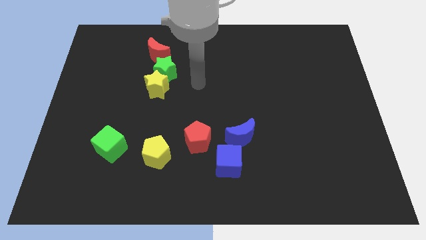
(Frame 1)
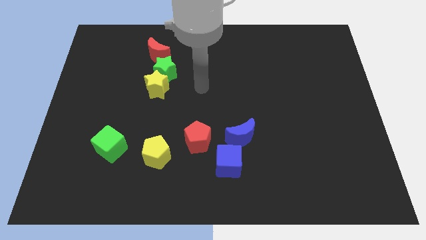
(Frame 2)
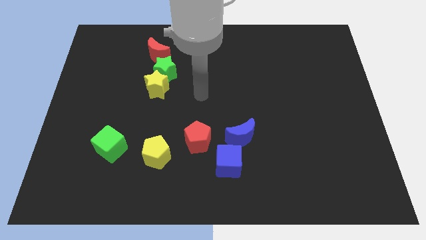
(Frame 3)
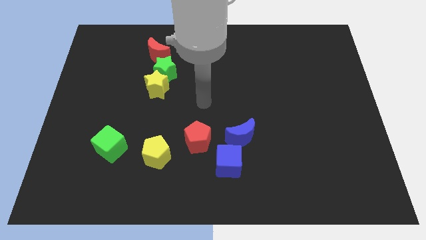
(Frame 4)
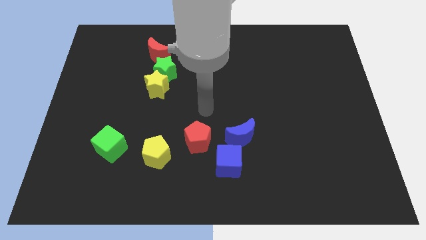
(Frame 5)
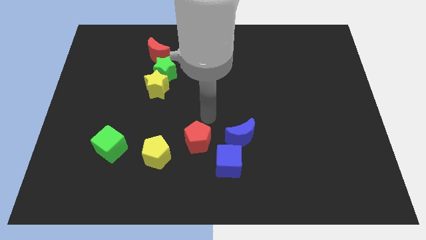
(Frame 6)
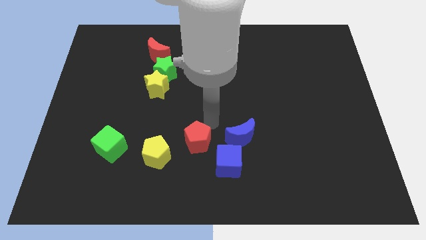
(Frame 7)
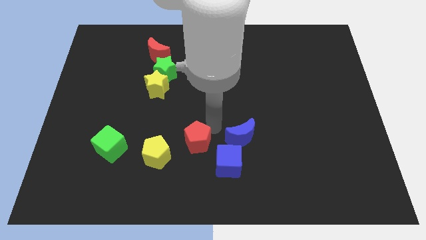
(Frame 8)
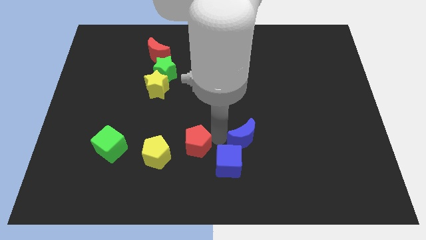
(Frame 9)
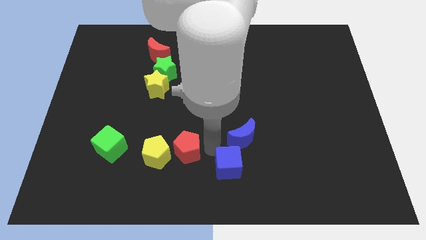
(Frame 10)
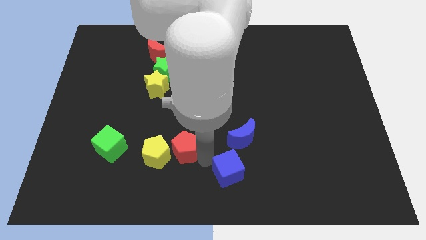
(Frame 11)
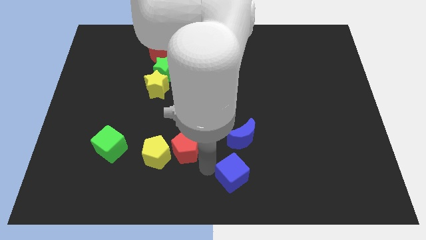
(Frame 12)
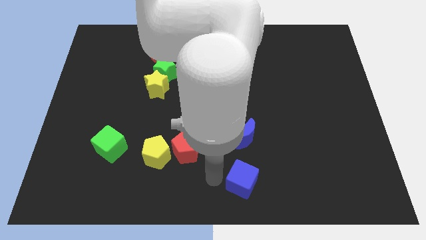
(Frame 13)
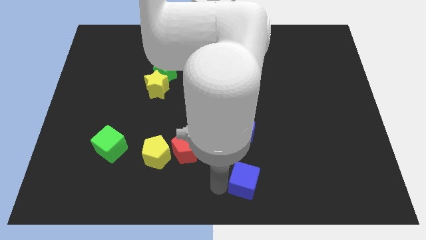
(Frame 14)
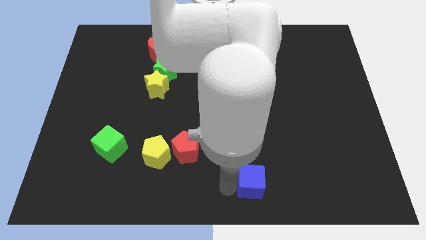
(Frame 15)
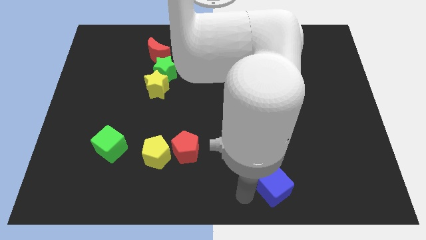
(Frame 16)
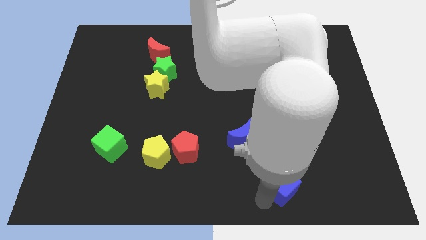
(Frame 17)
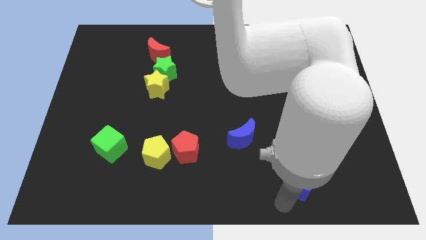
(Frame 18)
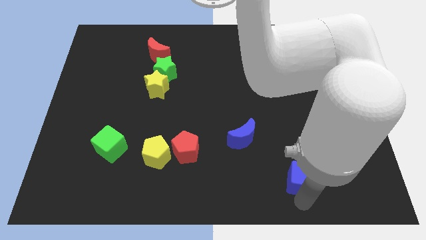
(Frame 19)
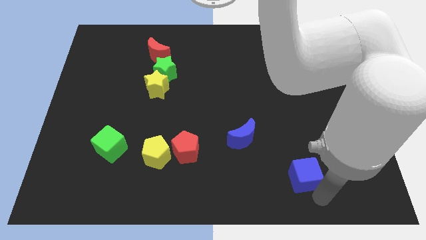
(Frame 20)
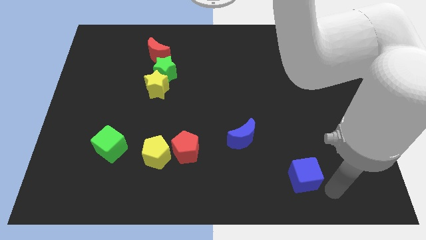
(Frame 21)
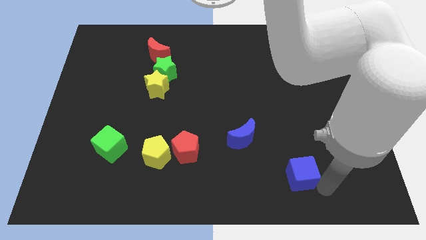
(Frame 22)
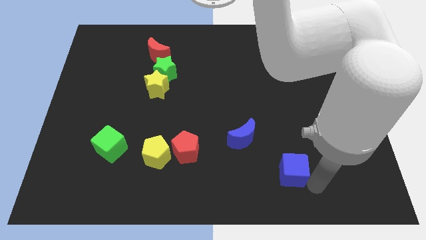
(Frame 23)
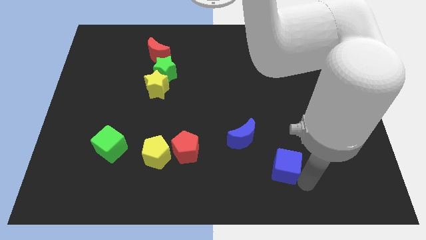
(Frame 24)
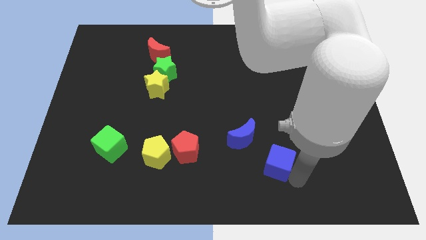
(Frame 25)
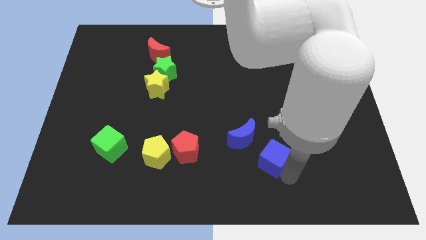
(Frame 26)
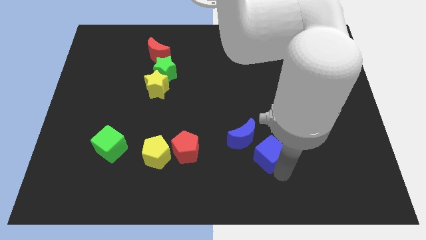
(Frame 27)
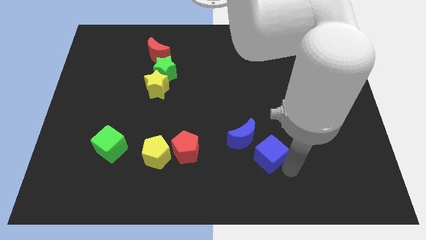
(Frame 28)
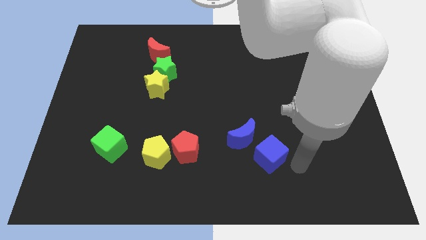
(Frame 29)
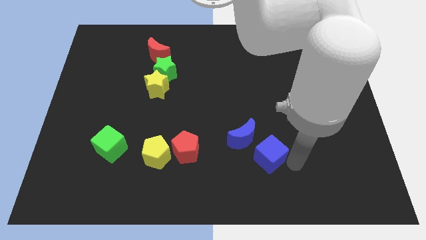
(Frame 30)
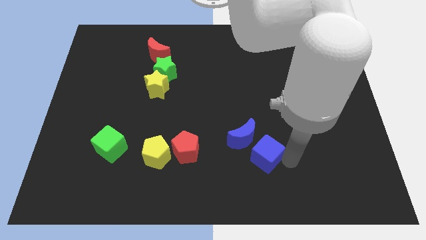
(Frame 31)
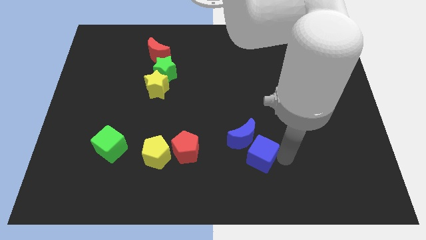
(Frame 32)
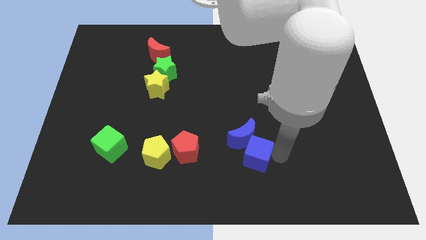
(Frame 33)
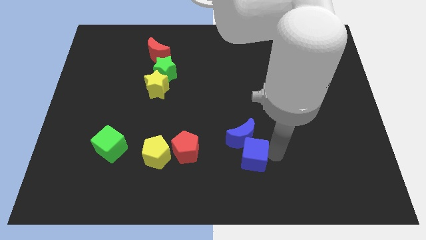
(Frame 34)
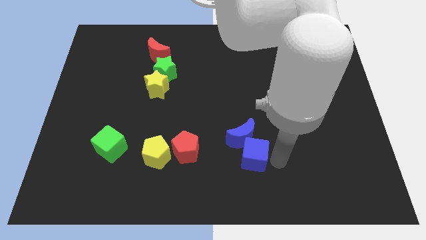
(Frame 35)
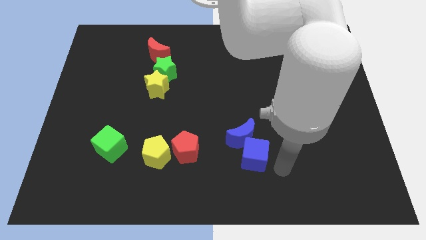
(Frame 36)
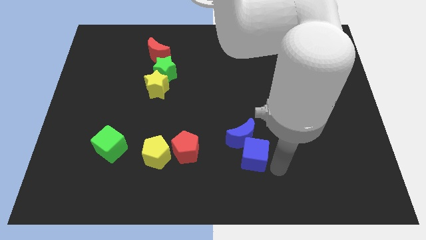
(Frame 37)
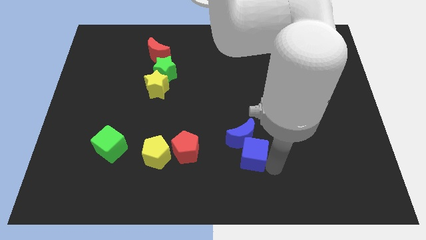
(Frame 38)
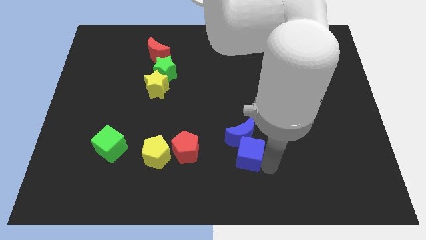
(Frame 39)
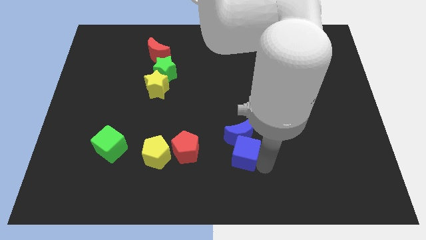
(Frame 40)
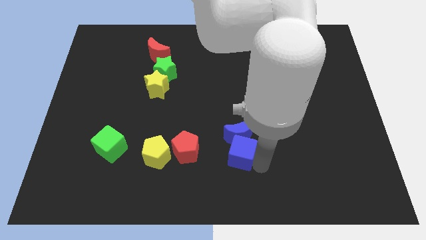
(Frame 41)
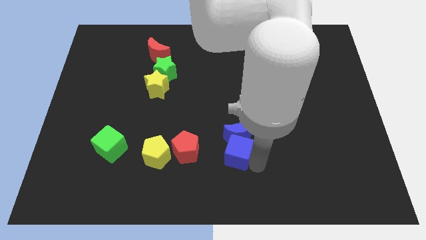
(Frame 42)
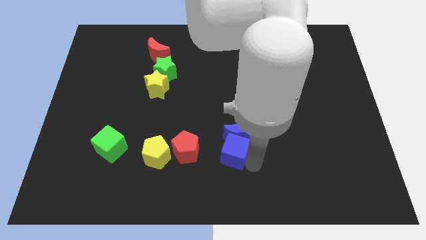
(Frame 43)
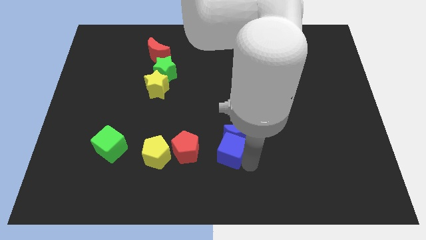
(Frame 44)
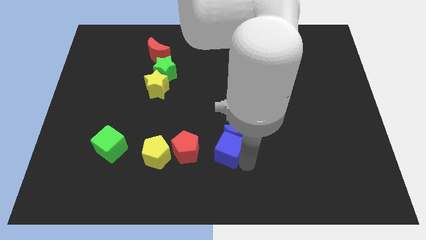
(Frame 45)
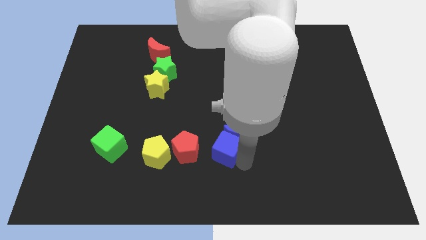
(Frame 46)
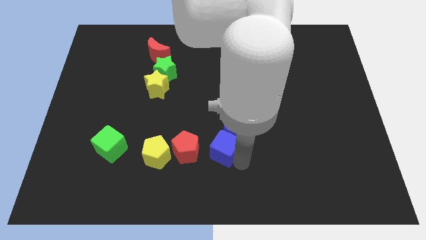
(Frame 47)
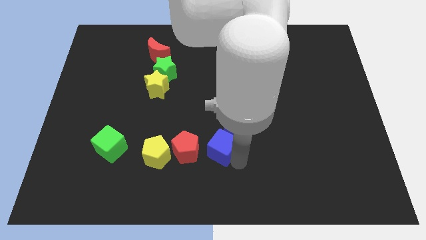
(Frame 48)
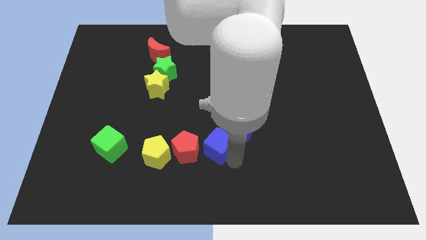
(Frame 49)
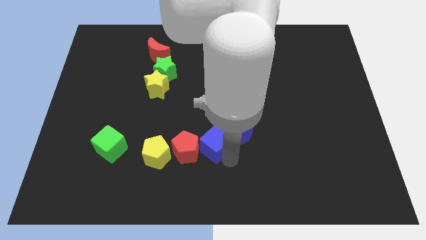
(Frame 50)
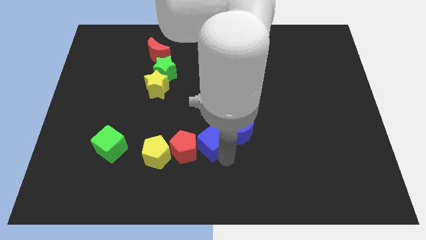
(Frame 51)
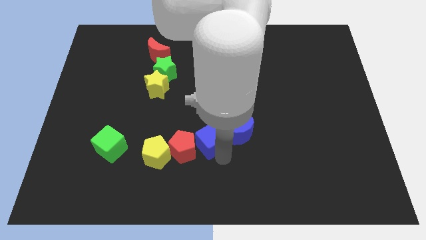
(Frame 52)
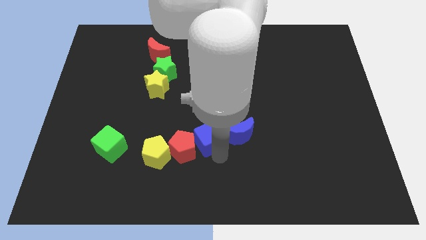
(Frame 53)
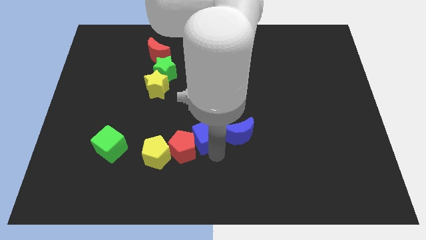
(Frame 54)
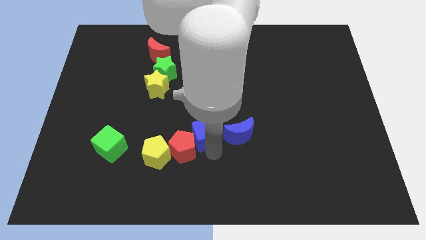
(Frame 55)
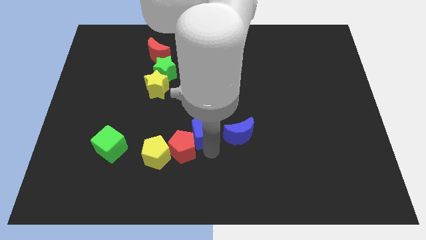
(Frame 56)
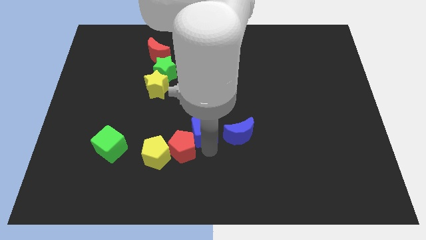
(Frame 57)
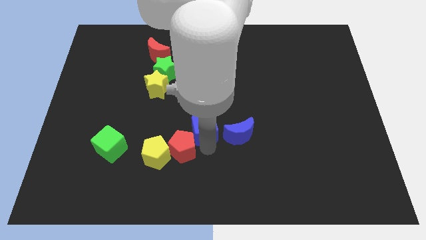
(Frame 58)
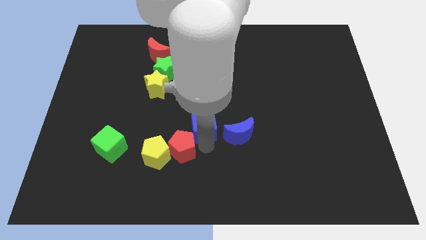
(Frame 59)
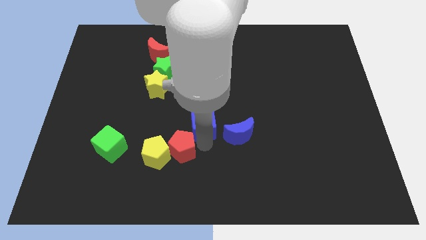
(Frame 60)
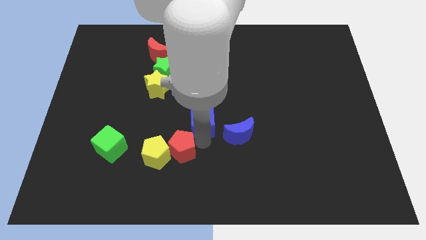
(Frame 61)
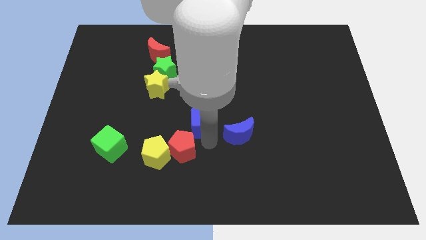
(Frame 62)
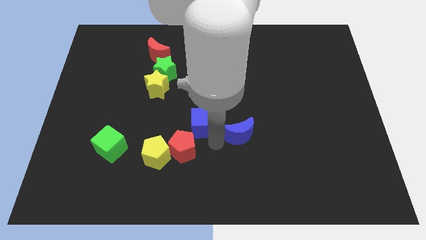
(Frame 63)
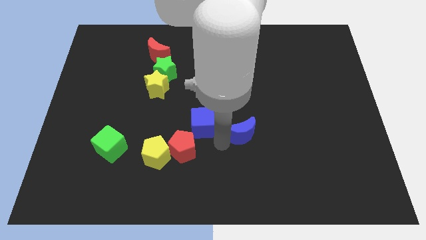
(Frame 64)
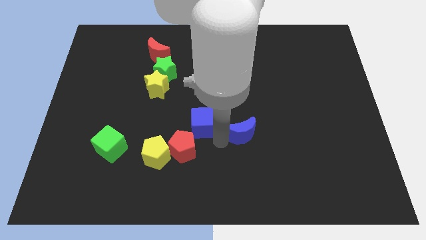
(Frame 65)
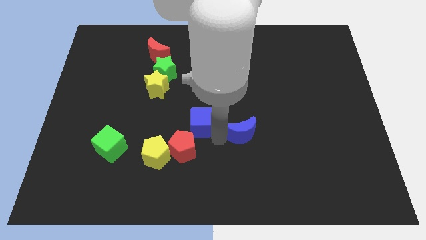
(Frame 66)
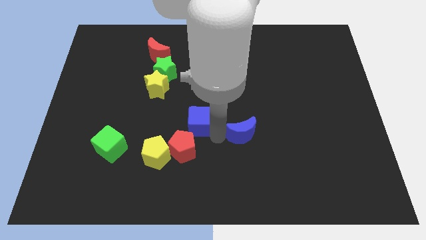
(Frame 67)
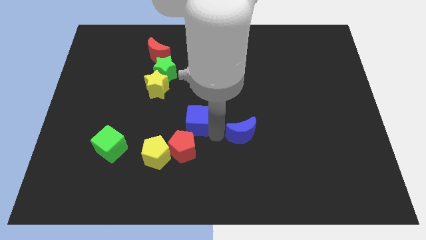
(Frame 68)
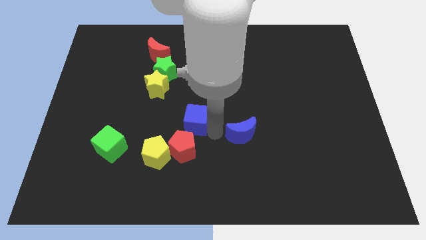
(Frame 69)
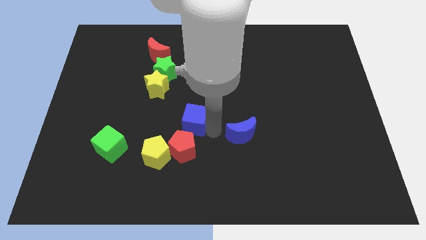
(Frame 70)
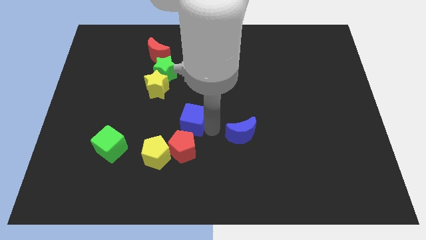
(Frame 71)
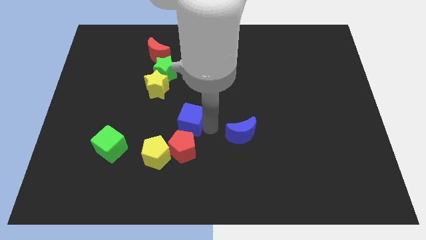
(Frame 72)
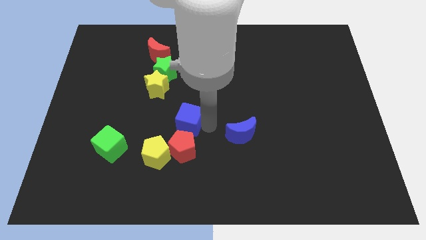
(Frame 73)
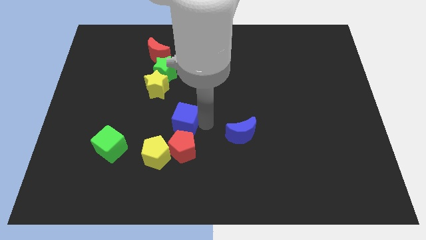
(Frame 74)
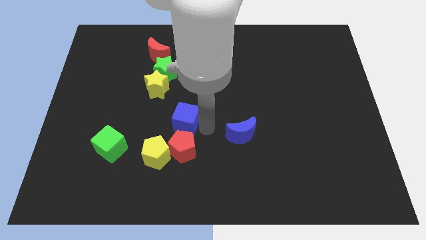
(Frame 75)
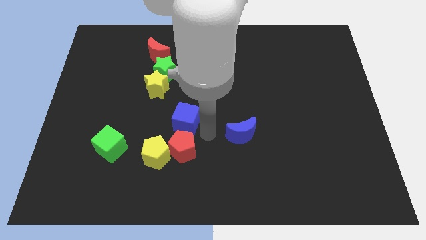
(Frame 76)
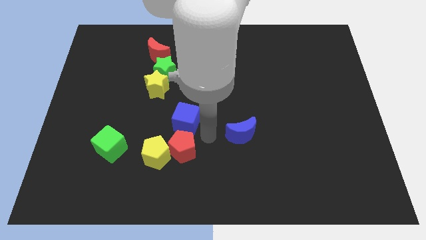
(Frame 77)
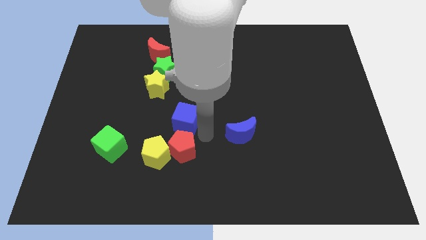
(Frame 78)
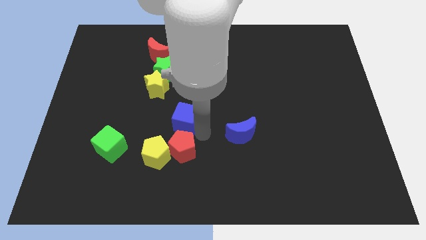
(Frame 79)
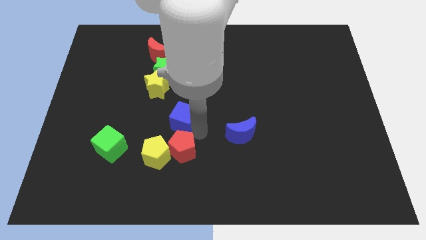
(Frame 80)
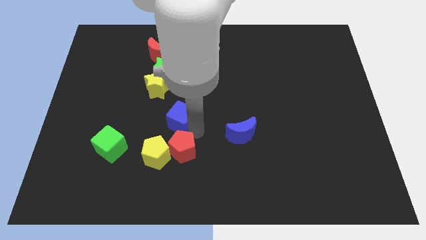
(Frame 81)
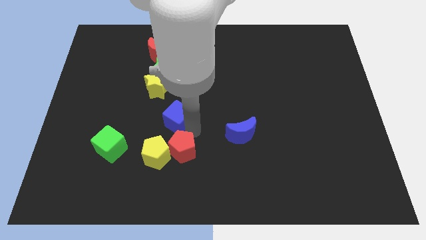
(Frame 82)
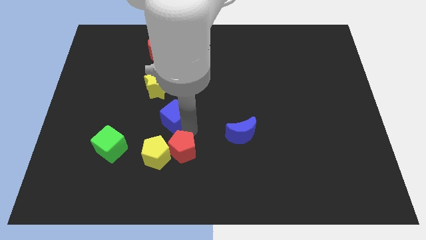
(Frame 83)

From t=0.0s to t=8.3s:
move the blue cube to the bottom side of the green star
